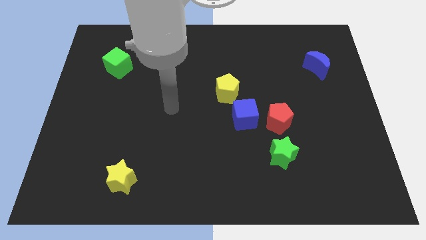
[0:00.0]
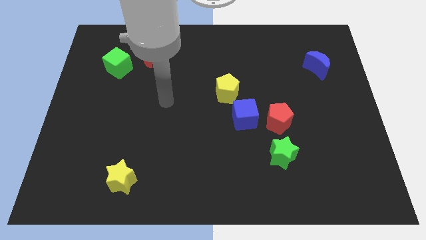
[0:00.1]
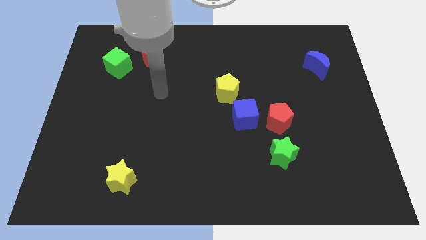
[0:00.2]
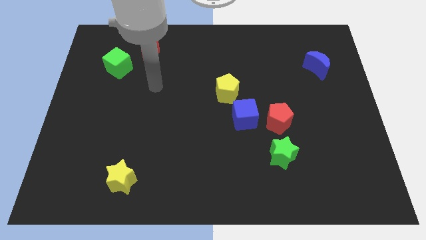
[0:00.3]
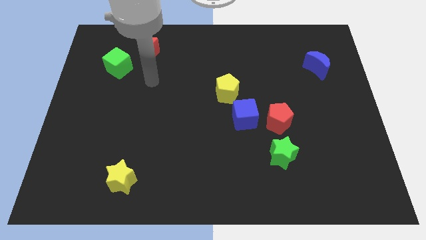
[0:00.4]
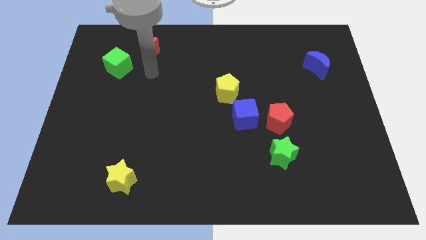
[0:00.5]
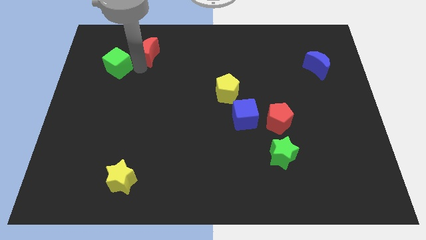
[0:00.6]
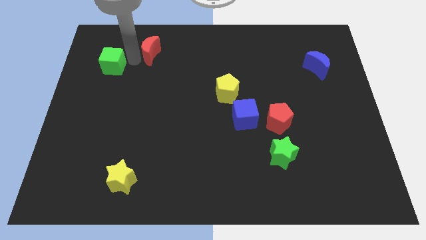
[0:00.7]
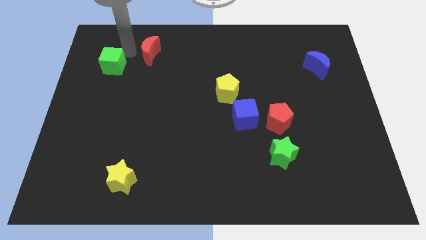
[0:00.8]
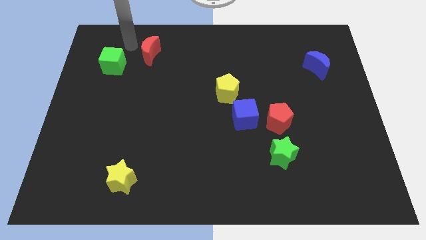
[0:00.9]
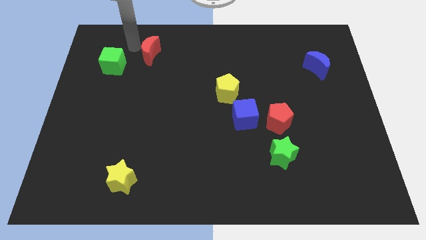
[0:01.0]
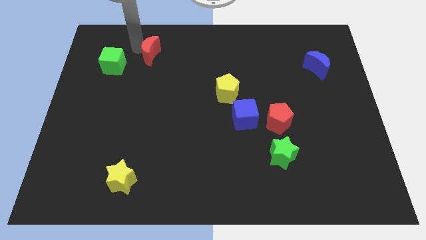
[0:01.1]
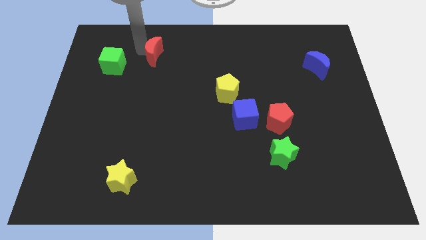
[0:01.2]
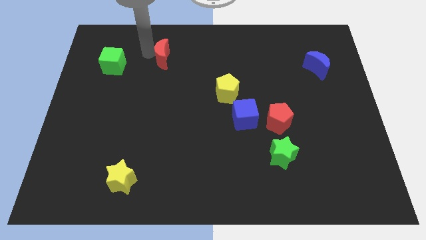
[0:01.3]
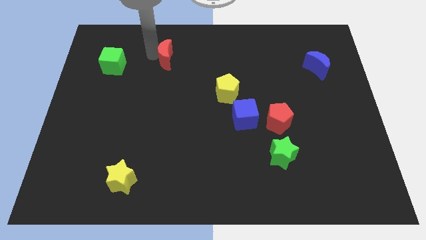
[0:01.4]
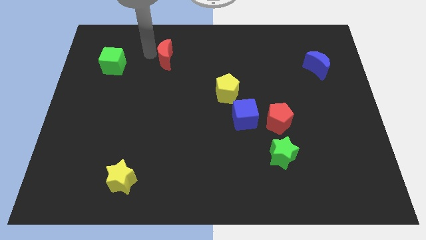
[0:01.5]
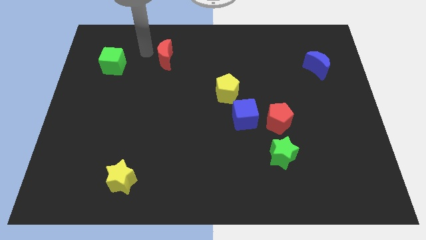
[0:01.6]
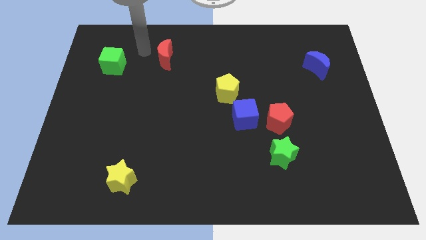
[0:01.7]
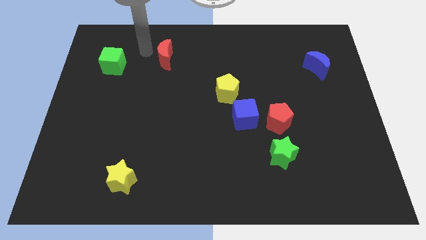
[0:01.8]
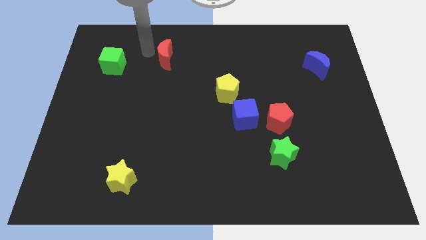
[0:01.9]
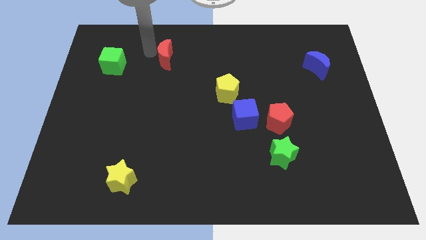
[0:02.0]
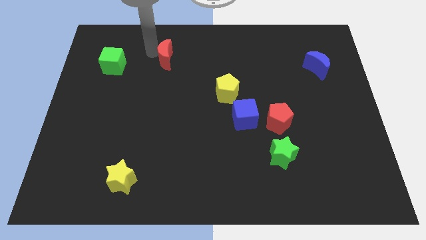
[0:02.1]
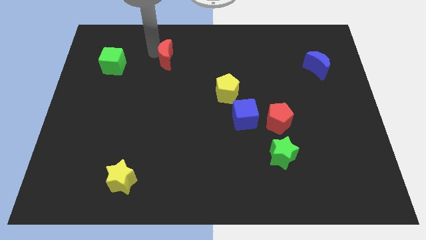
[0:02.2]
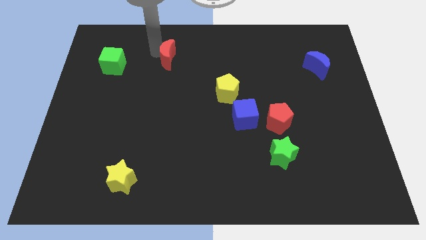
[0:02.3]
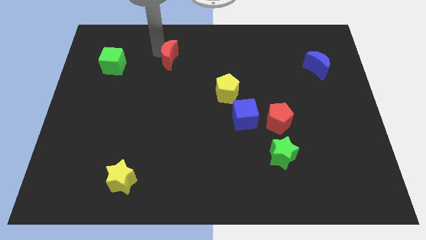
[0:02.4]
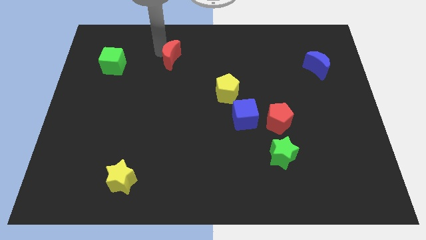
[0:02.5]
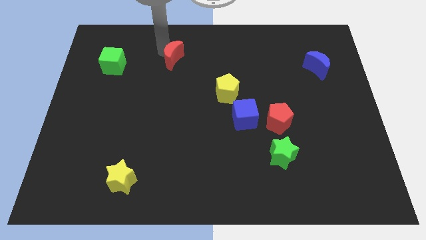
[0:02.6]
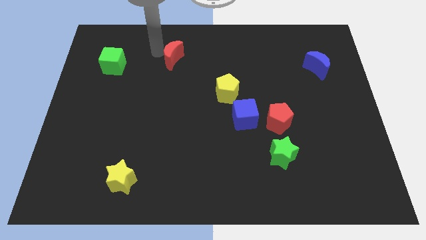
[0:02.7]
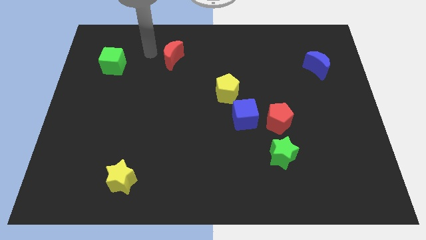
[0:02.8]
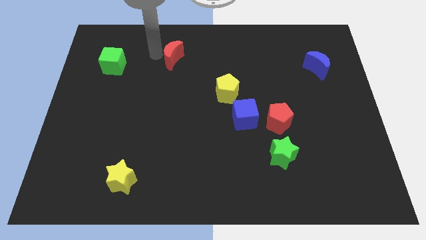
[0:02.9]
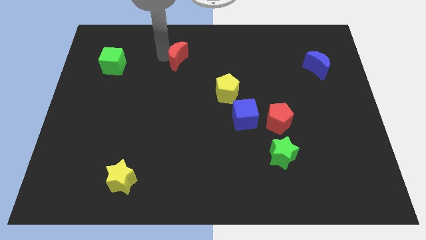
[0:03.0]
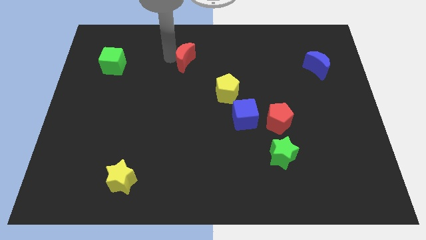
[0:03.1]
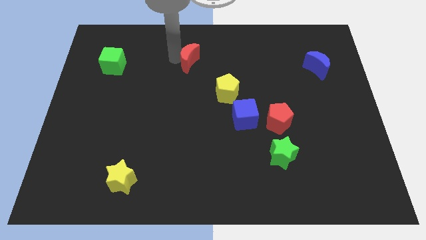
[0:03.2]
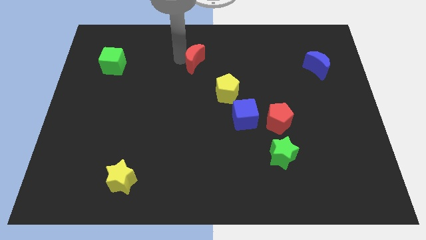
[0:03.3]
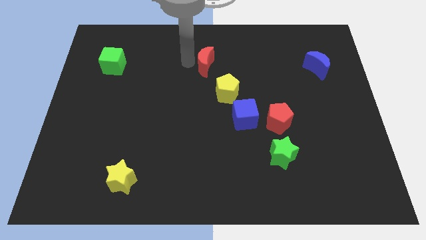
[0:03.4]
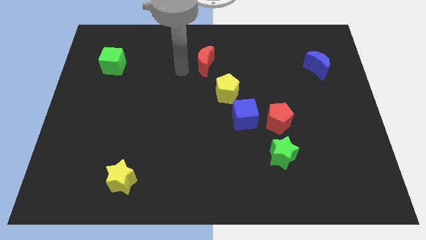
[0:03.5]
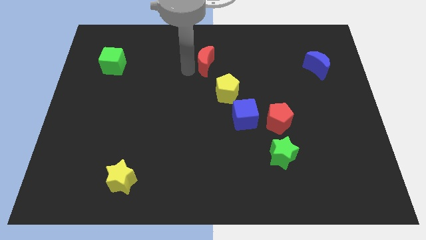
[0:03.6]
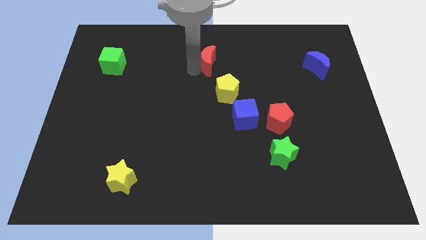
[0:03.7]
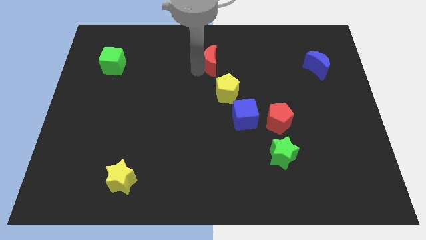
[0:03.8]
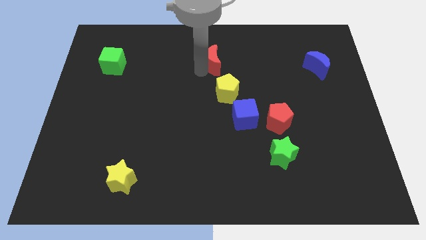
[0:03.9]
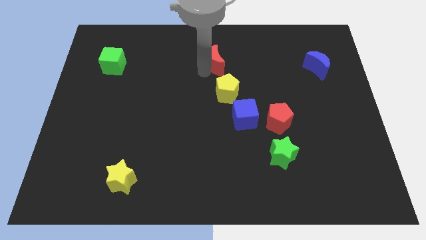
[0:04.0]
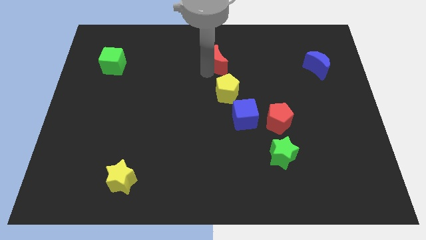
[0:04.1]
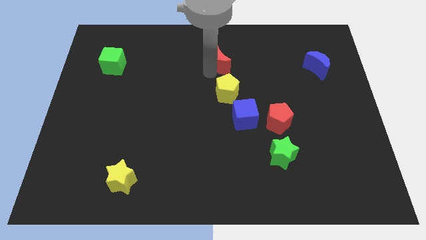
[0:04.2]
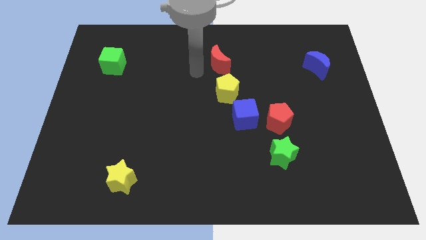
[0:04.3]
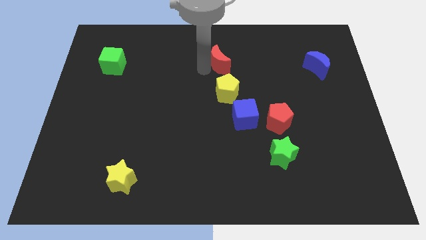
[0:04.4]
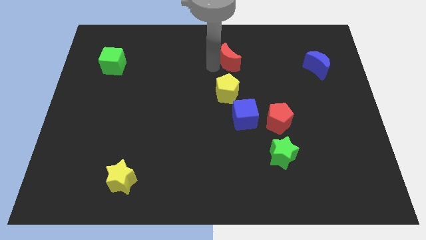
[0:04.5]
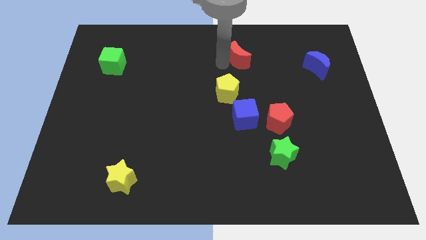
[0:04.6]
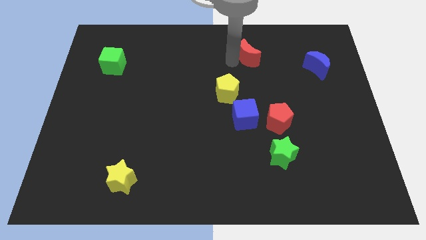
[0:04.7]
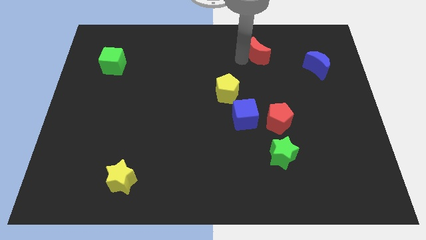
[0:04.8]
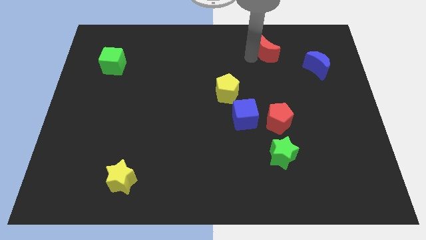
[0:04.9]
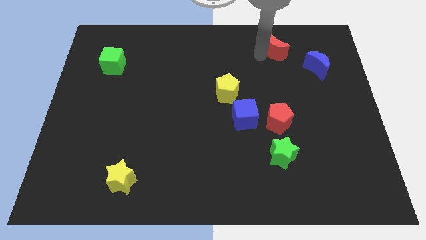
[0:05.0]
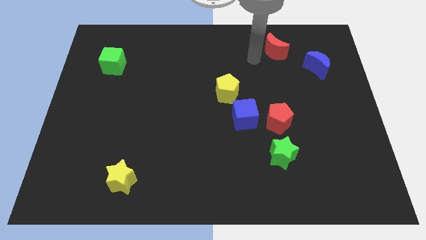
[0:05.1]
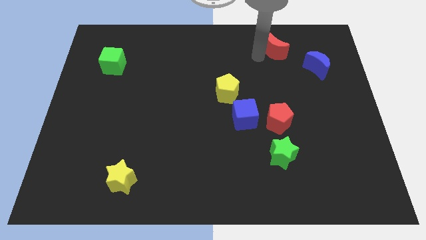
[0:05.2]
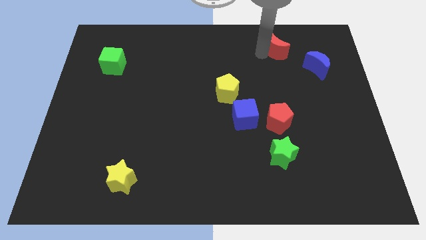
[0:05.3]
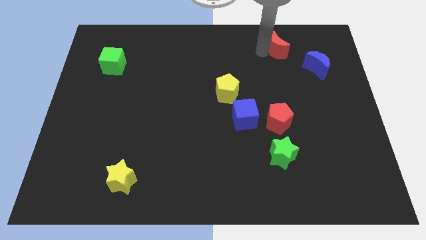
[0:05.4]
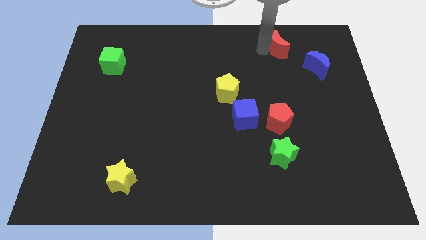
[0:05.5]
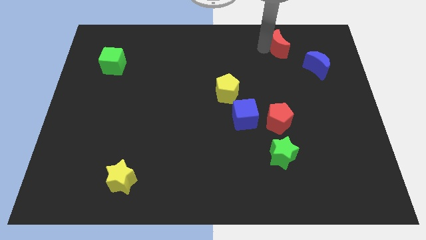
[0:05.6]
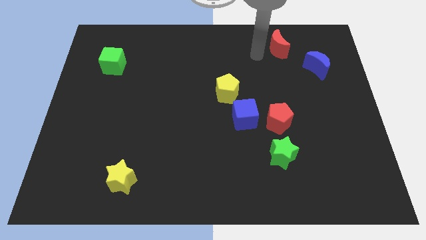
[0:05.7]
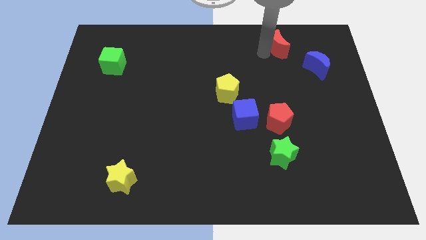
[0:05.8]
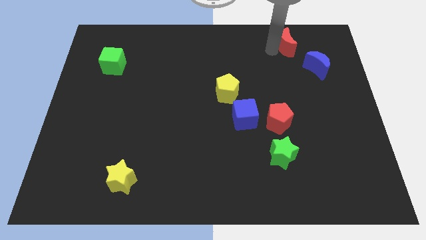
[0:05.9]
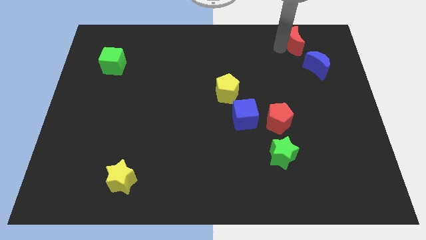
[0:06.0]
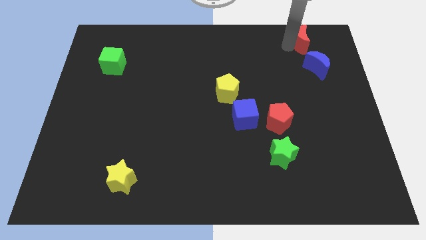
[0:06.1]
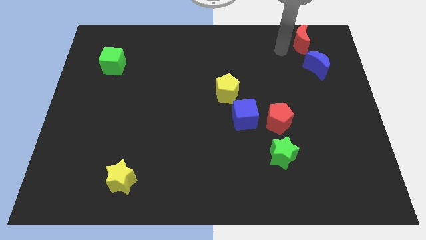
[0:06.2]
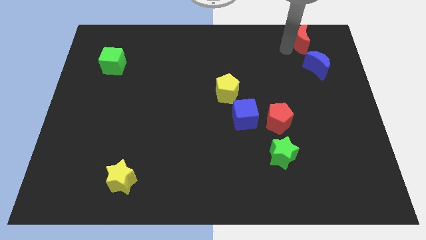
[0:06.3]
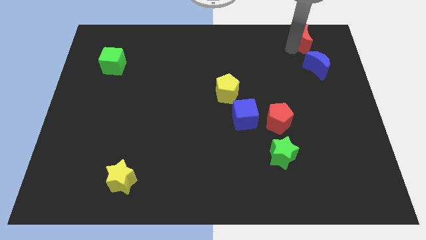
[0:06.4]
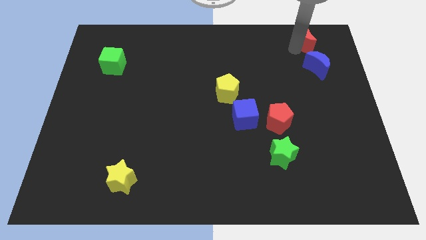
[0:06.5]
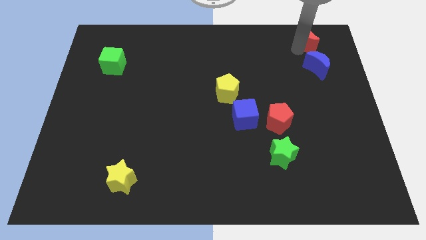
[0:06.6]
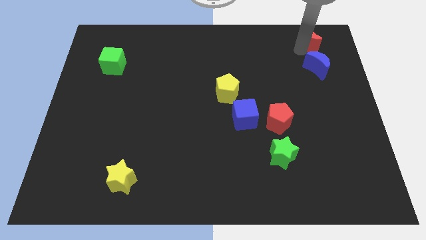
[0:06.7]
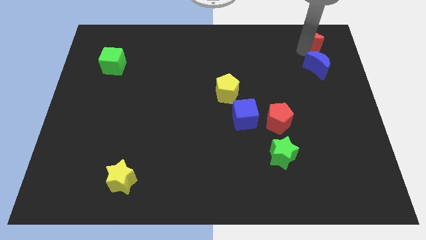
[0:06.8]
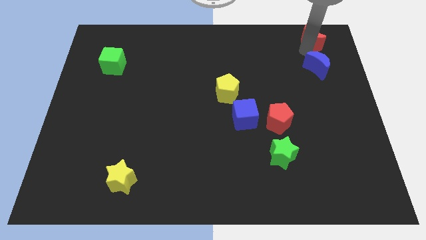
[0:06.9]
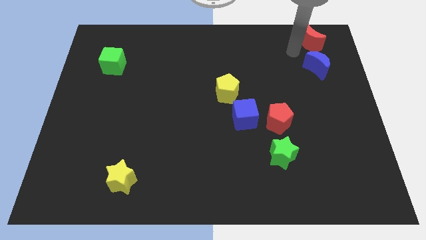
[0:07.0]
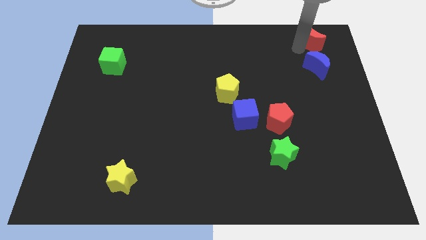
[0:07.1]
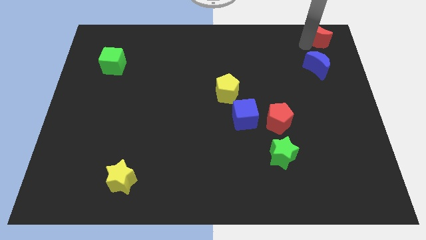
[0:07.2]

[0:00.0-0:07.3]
push the red moon to the top right

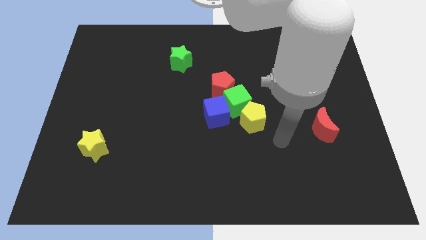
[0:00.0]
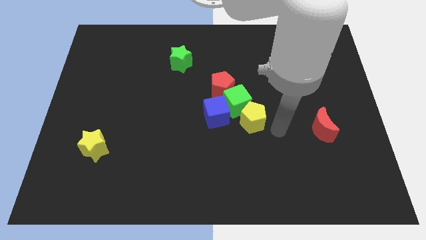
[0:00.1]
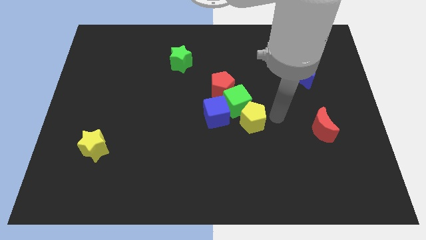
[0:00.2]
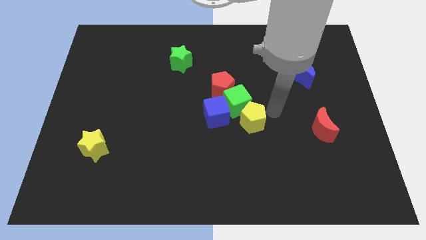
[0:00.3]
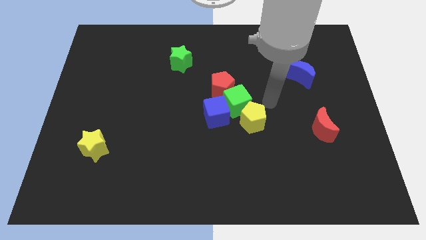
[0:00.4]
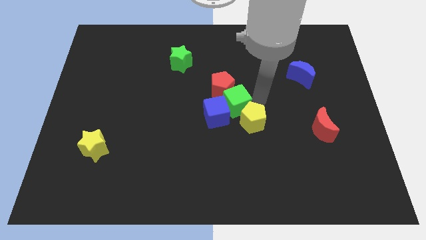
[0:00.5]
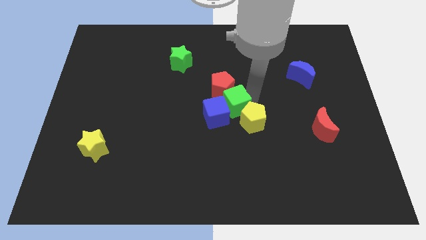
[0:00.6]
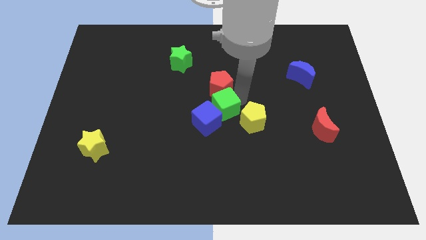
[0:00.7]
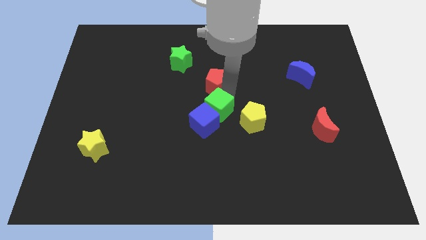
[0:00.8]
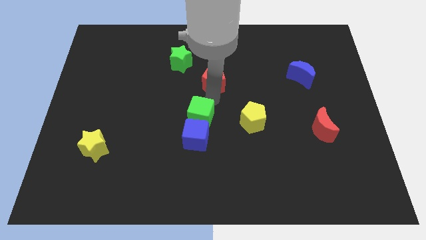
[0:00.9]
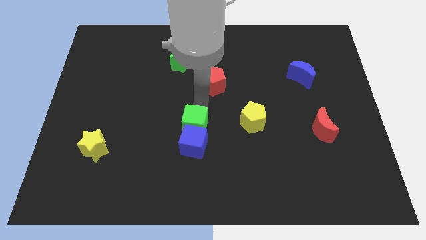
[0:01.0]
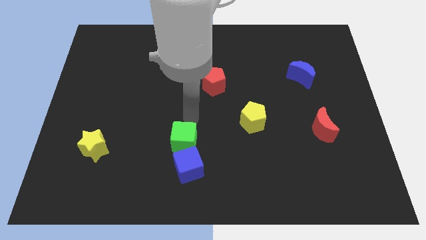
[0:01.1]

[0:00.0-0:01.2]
push the blue cube to the bottom side
